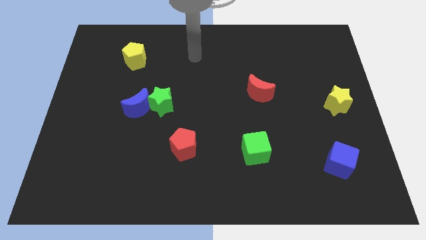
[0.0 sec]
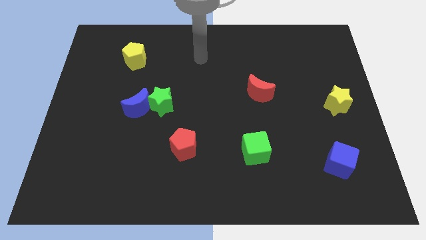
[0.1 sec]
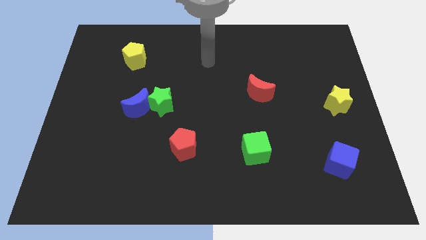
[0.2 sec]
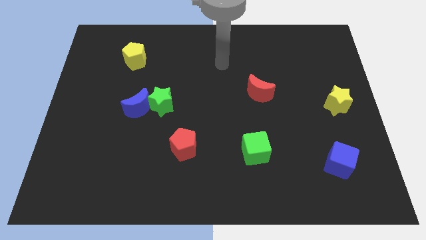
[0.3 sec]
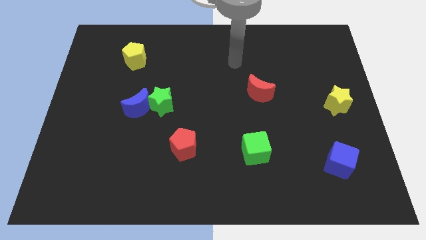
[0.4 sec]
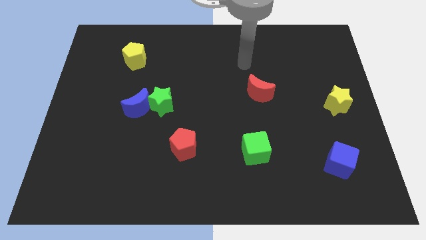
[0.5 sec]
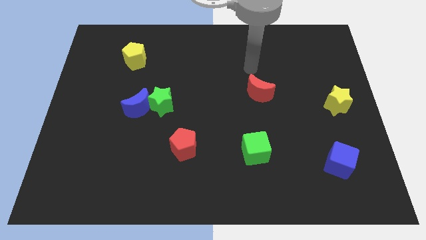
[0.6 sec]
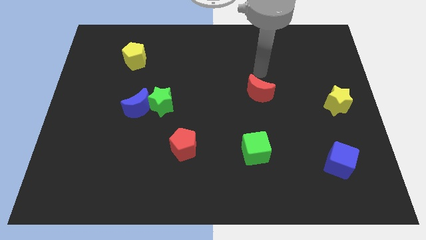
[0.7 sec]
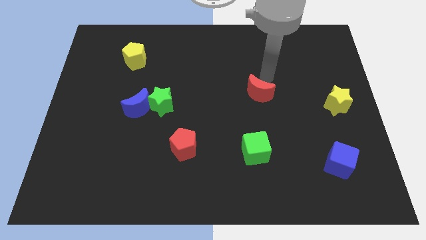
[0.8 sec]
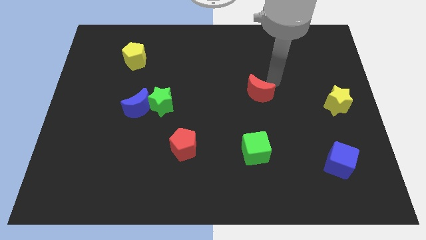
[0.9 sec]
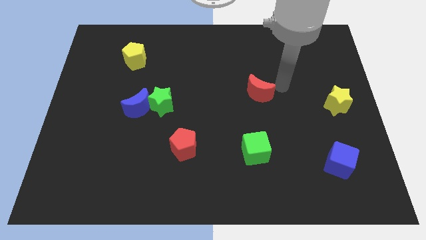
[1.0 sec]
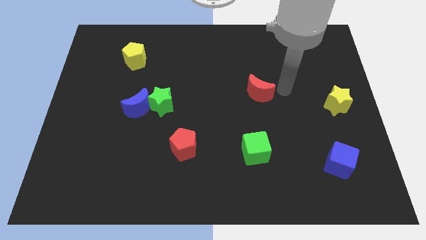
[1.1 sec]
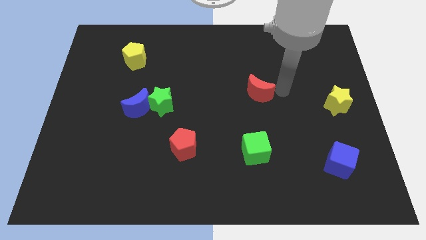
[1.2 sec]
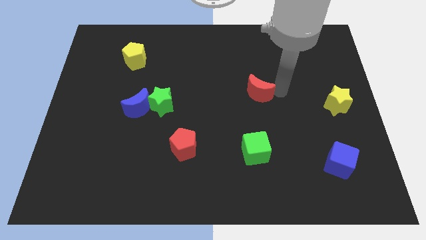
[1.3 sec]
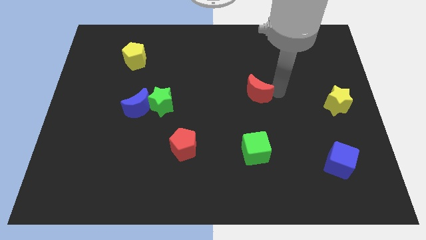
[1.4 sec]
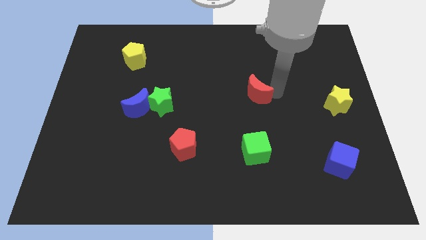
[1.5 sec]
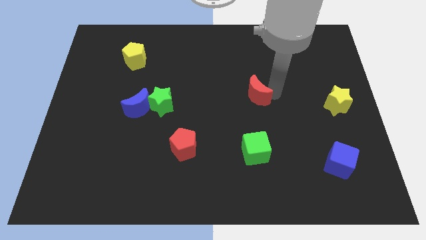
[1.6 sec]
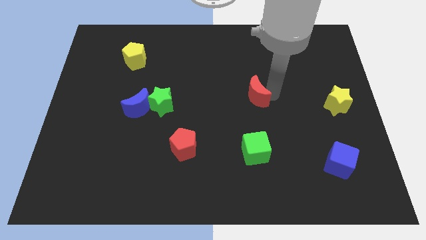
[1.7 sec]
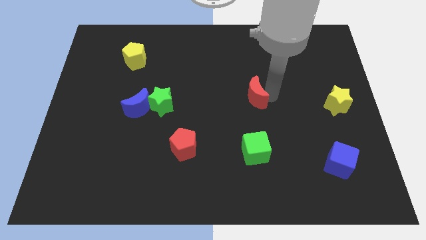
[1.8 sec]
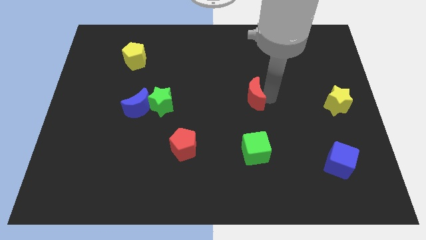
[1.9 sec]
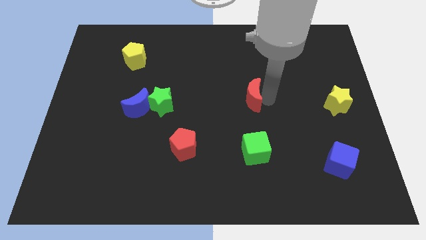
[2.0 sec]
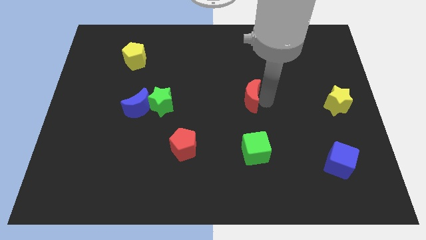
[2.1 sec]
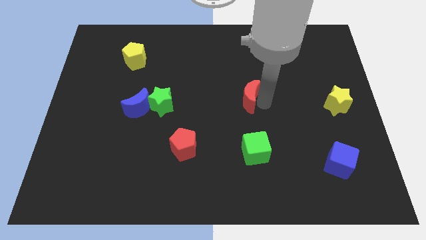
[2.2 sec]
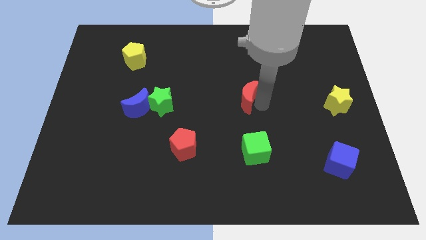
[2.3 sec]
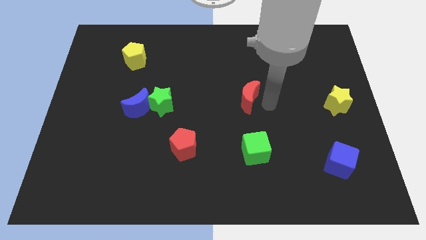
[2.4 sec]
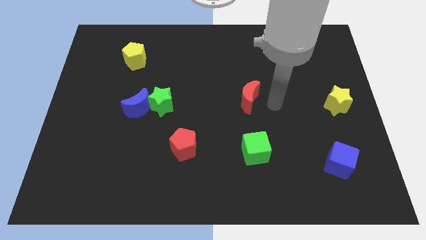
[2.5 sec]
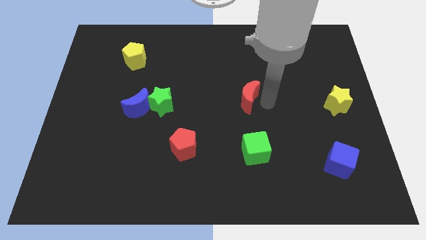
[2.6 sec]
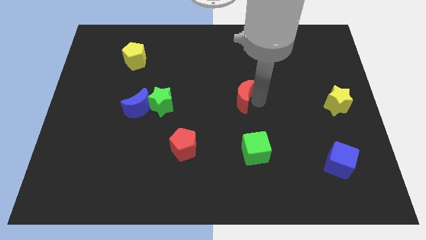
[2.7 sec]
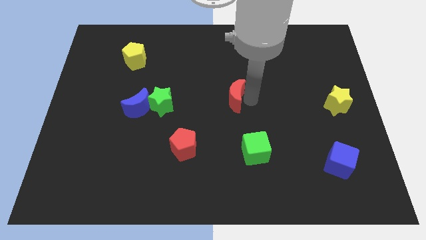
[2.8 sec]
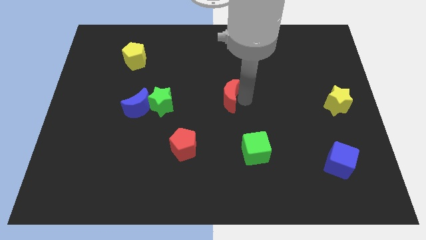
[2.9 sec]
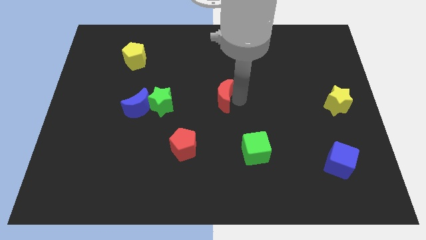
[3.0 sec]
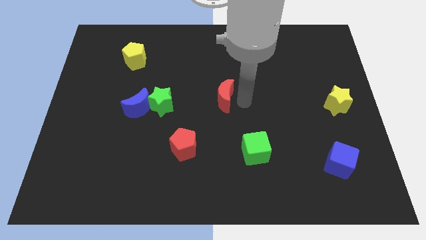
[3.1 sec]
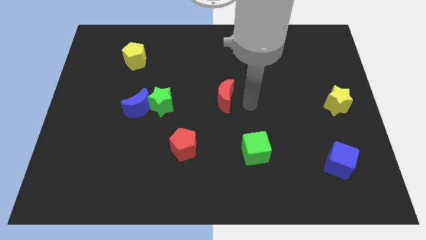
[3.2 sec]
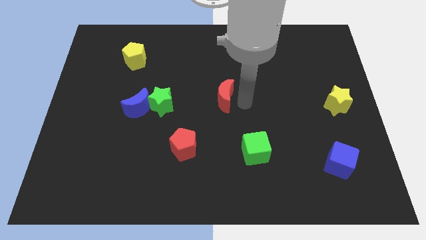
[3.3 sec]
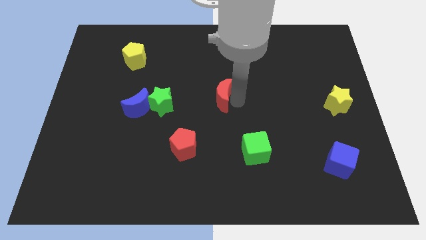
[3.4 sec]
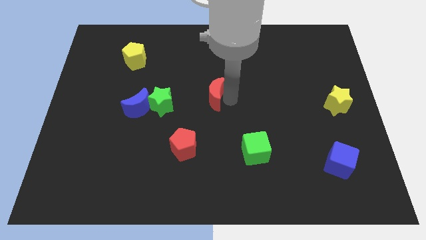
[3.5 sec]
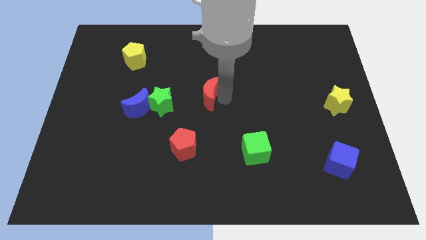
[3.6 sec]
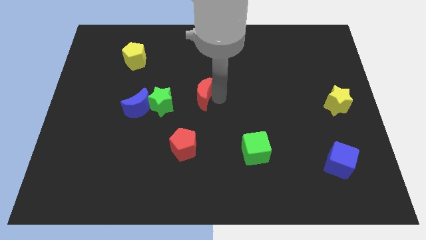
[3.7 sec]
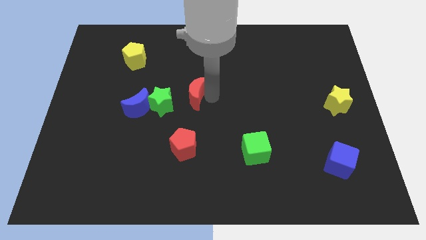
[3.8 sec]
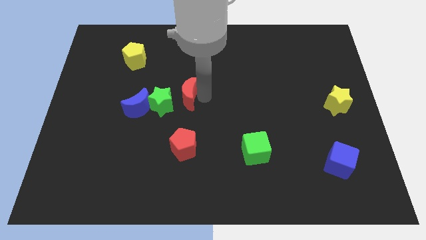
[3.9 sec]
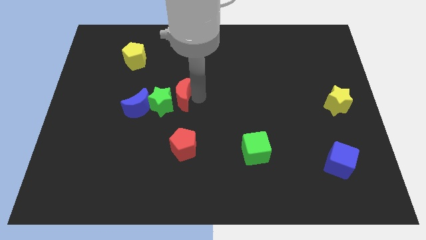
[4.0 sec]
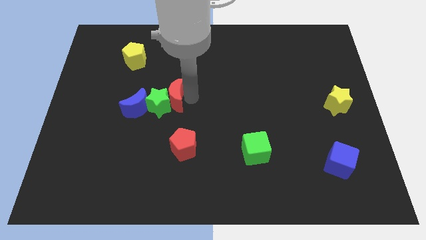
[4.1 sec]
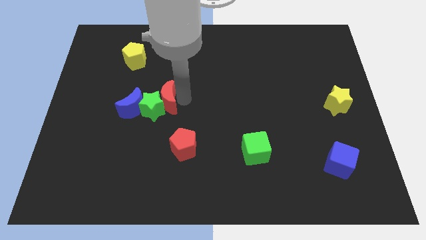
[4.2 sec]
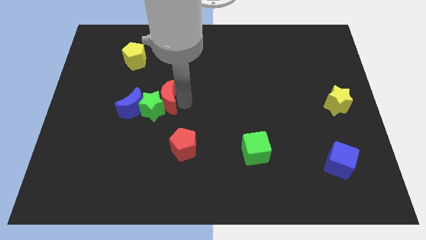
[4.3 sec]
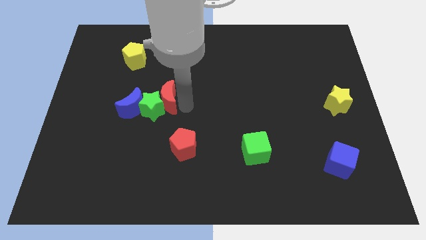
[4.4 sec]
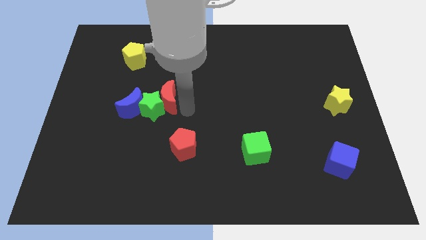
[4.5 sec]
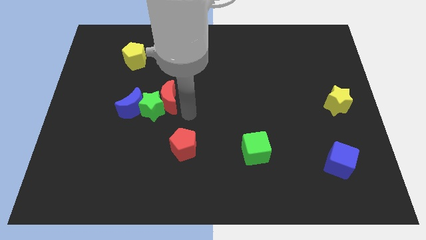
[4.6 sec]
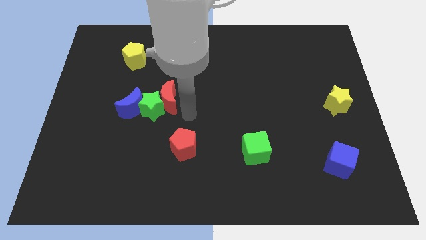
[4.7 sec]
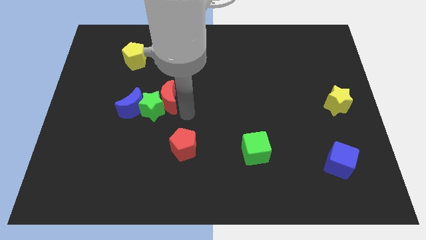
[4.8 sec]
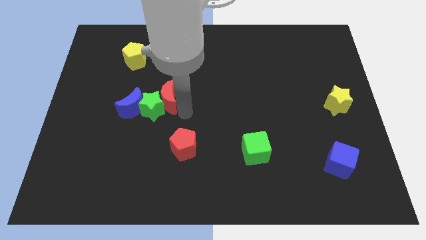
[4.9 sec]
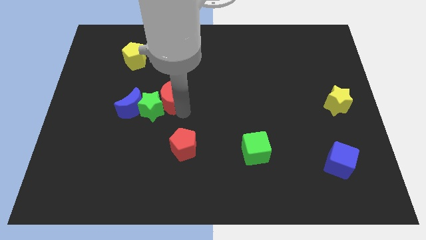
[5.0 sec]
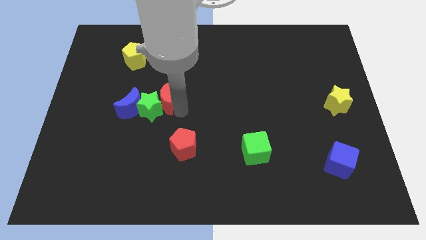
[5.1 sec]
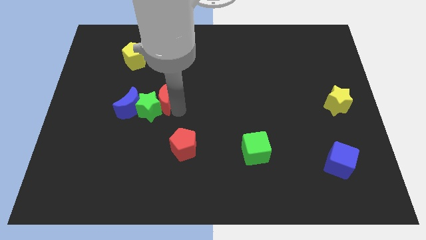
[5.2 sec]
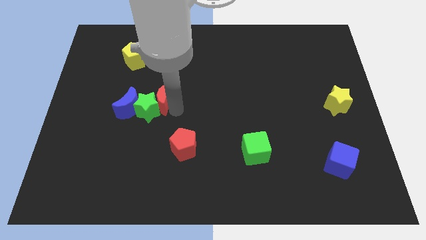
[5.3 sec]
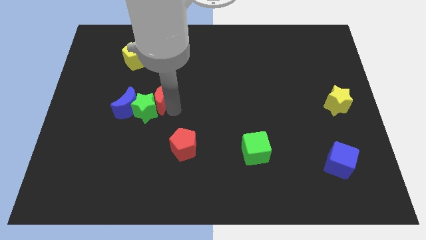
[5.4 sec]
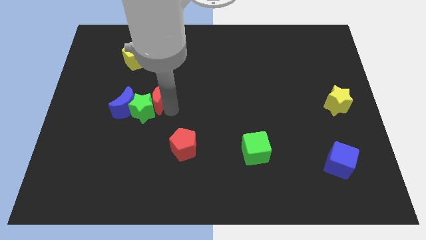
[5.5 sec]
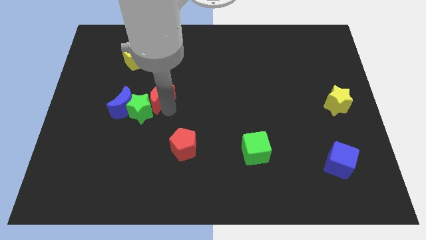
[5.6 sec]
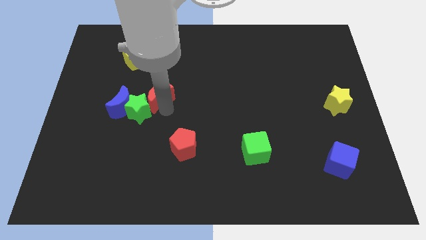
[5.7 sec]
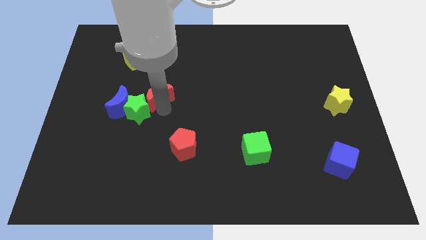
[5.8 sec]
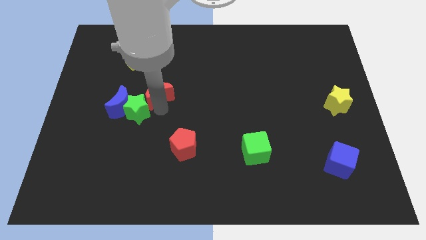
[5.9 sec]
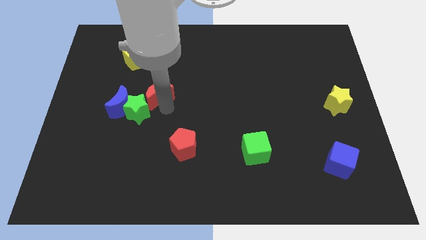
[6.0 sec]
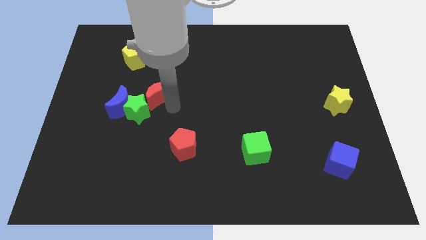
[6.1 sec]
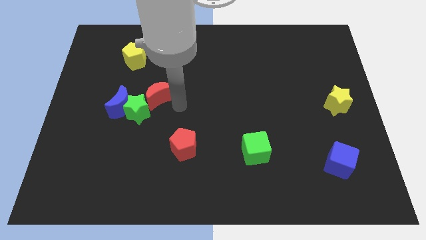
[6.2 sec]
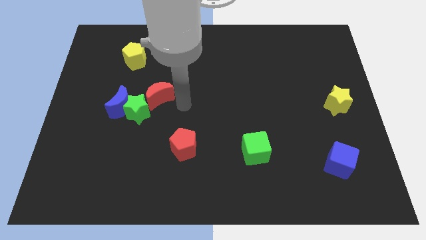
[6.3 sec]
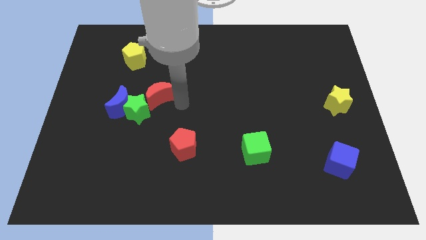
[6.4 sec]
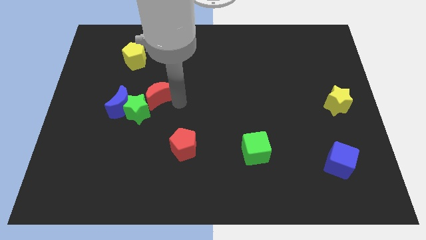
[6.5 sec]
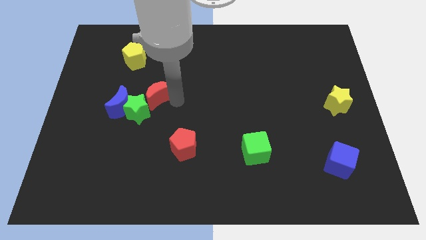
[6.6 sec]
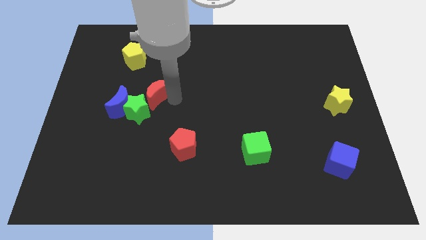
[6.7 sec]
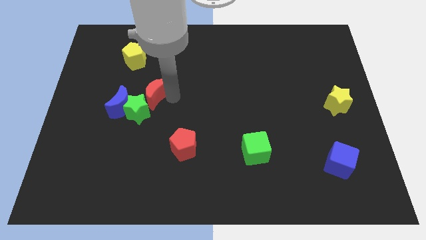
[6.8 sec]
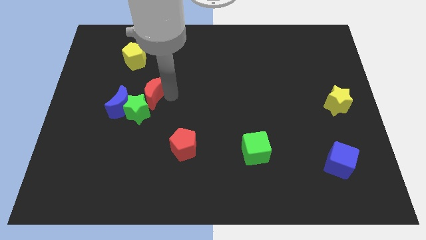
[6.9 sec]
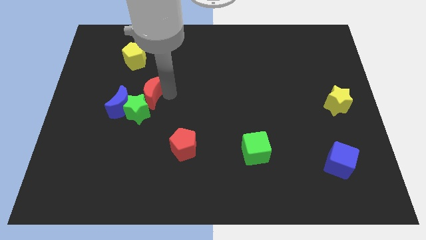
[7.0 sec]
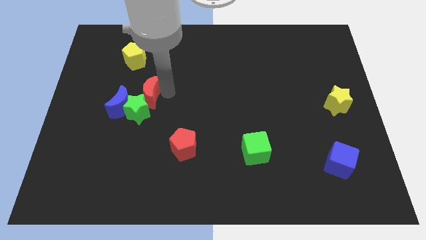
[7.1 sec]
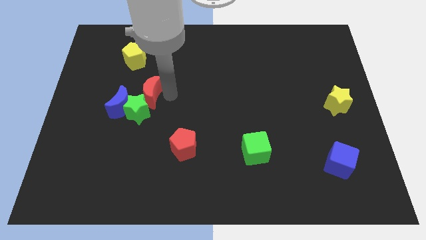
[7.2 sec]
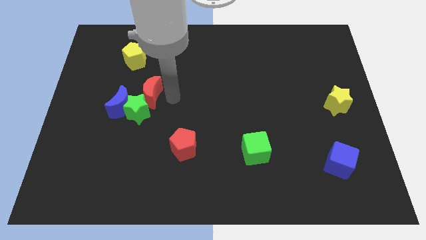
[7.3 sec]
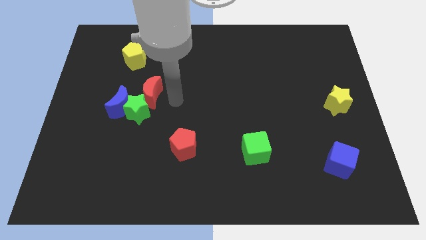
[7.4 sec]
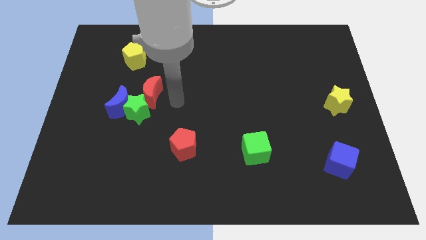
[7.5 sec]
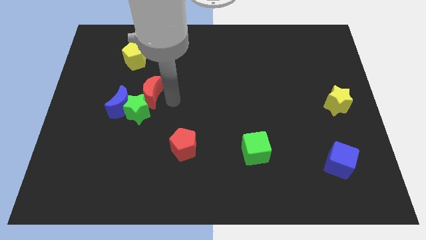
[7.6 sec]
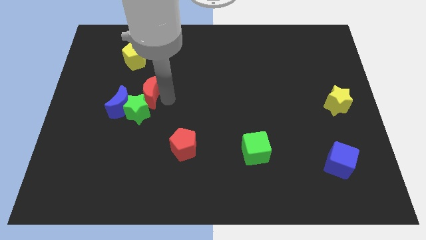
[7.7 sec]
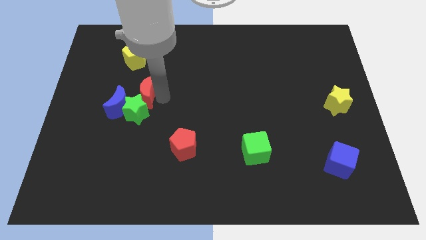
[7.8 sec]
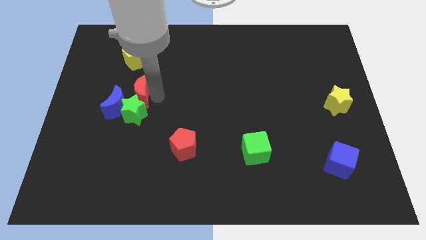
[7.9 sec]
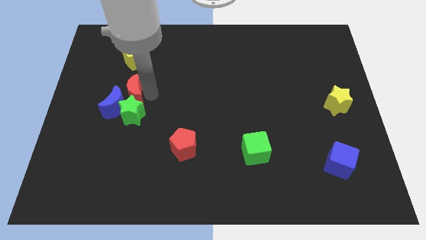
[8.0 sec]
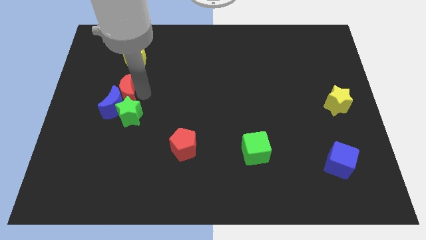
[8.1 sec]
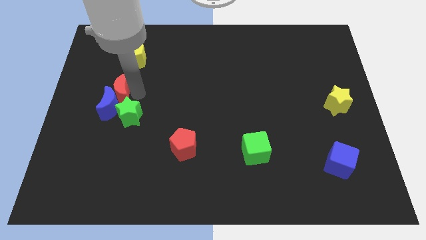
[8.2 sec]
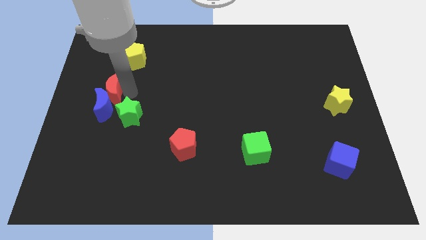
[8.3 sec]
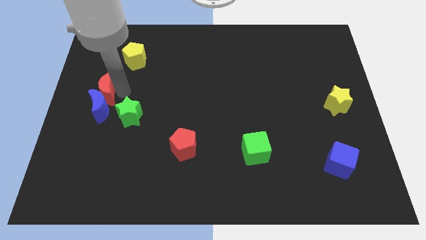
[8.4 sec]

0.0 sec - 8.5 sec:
put the red moon to the center left
